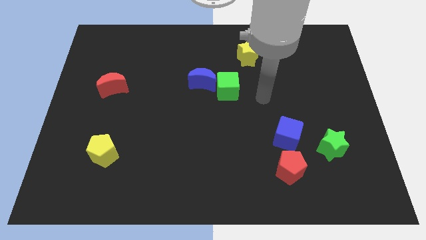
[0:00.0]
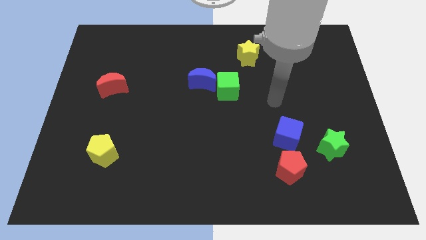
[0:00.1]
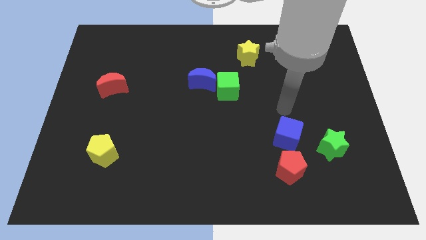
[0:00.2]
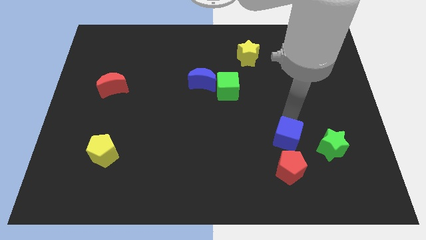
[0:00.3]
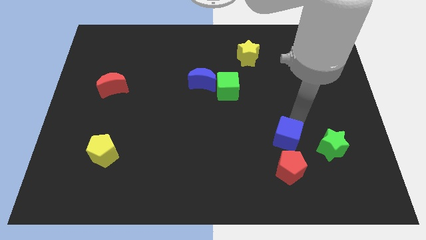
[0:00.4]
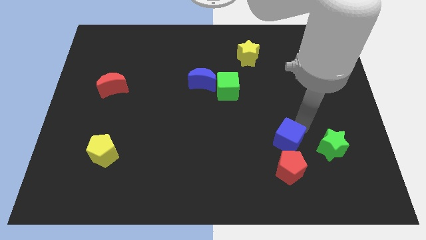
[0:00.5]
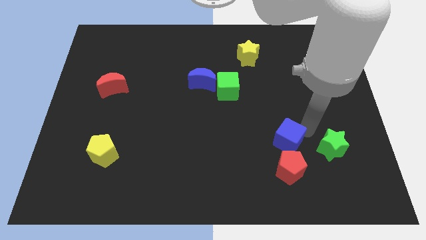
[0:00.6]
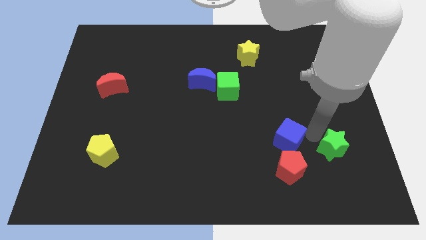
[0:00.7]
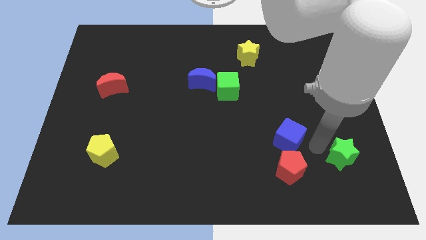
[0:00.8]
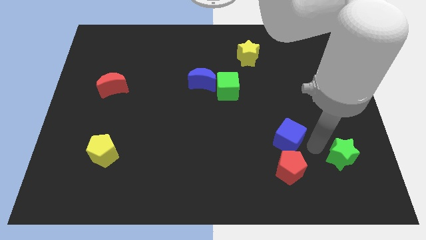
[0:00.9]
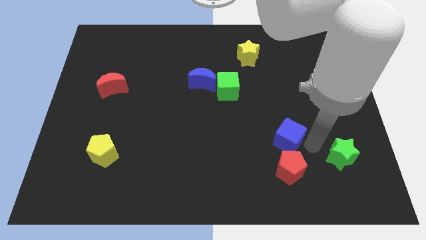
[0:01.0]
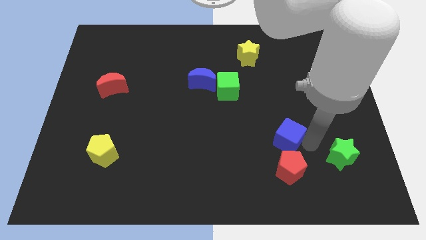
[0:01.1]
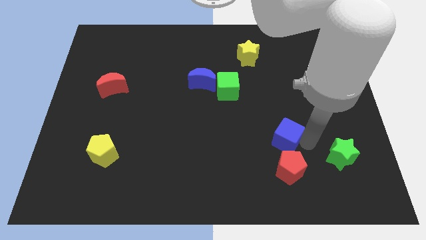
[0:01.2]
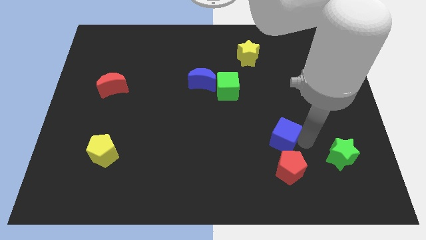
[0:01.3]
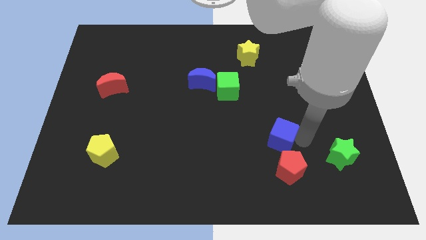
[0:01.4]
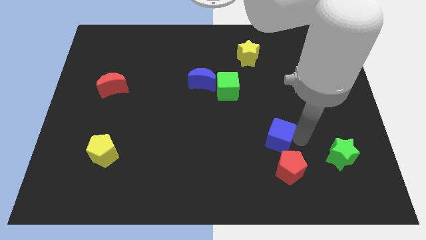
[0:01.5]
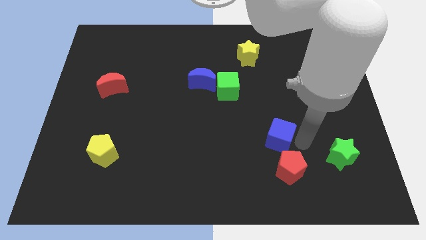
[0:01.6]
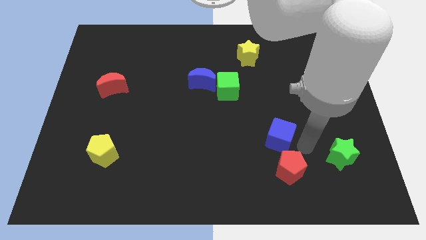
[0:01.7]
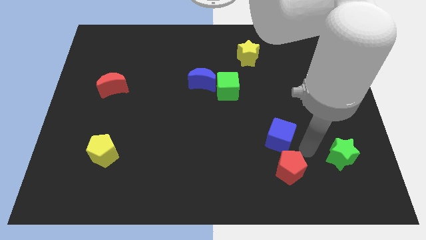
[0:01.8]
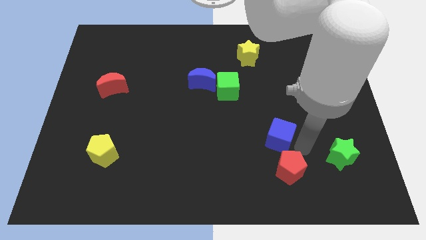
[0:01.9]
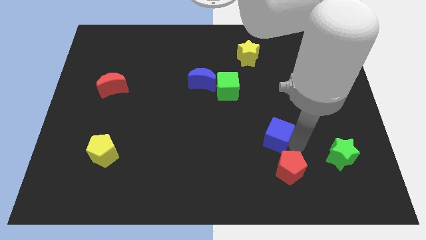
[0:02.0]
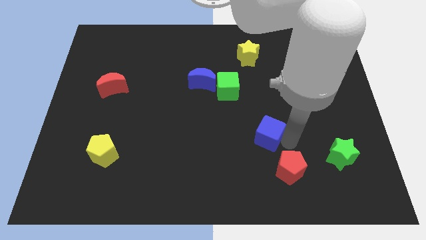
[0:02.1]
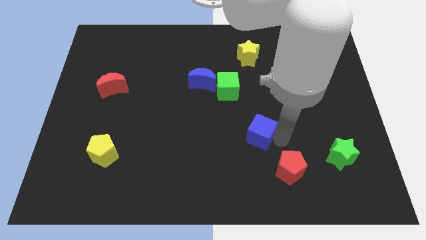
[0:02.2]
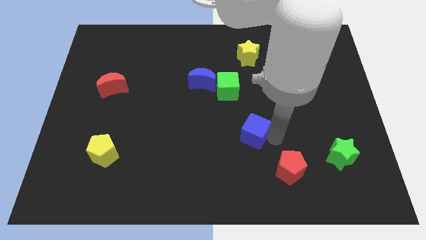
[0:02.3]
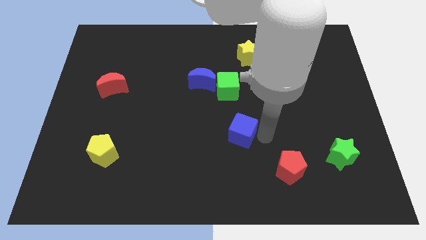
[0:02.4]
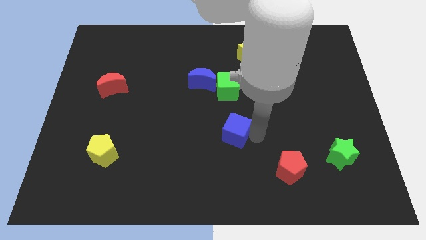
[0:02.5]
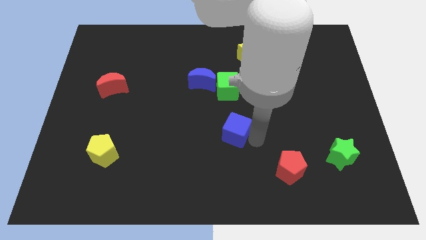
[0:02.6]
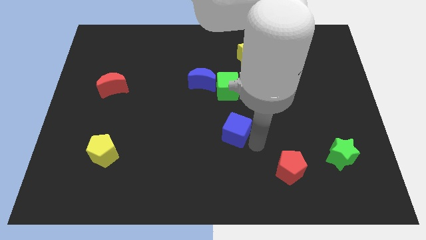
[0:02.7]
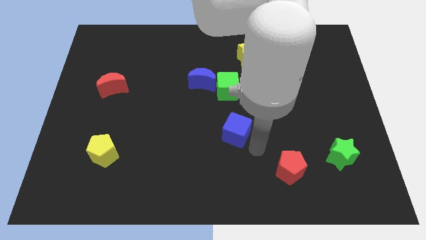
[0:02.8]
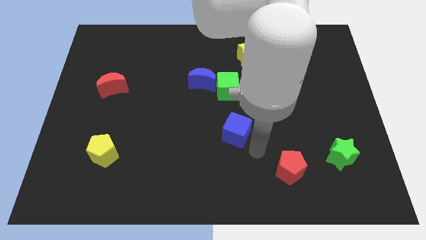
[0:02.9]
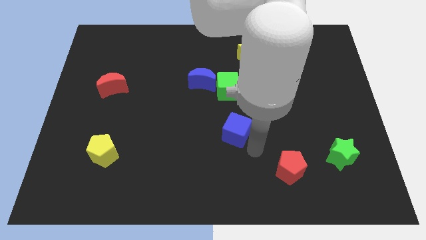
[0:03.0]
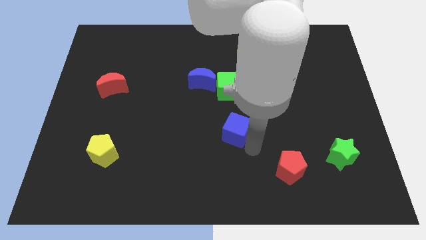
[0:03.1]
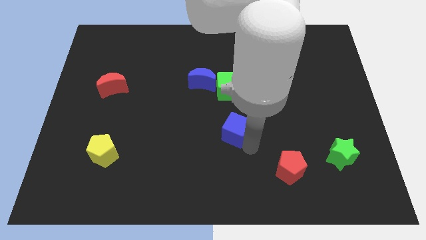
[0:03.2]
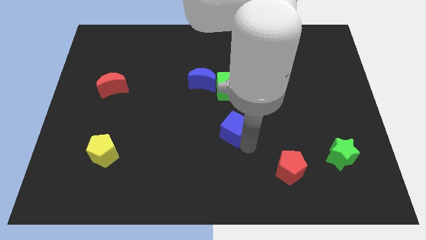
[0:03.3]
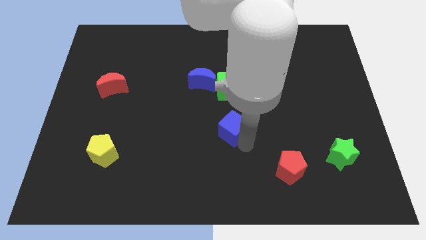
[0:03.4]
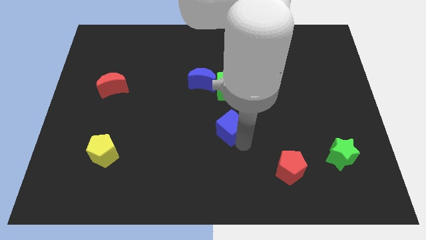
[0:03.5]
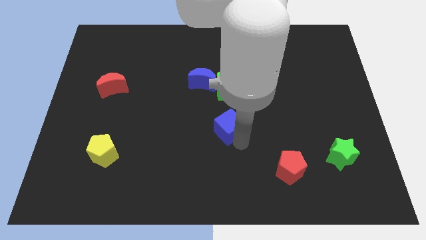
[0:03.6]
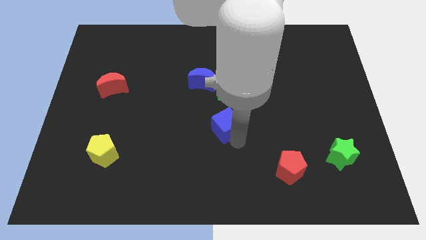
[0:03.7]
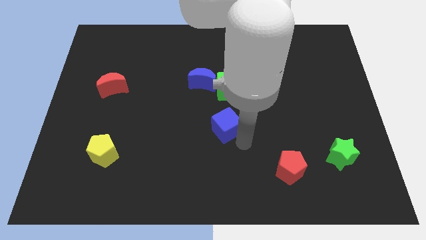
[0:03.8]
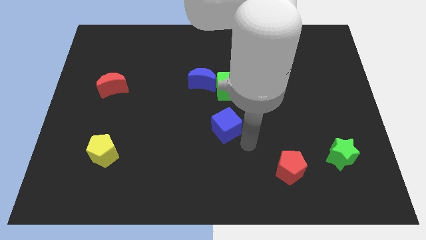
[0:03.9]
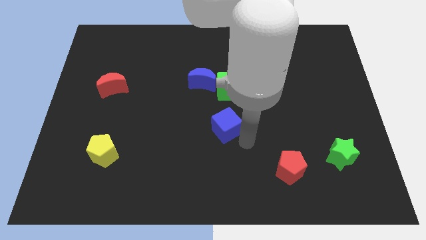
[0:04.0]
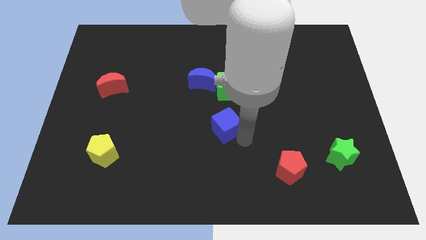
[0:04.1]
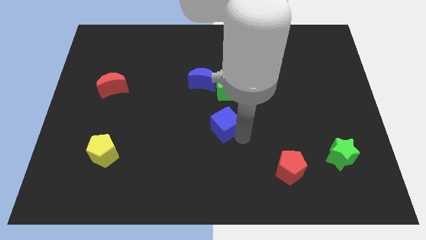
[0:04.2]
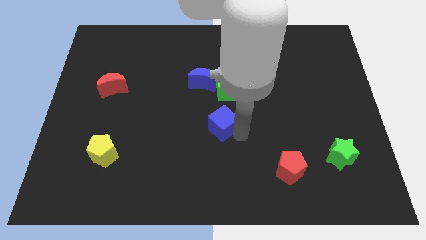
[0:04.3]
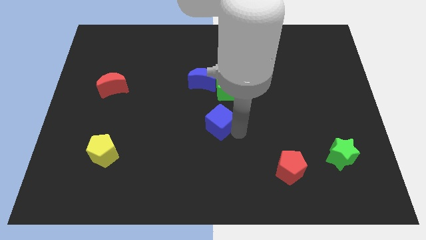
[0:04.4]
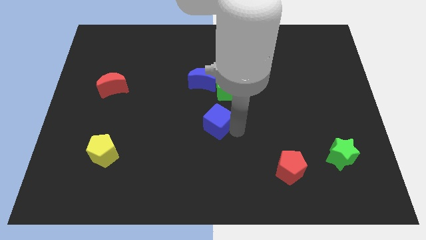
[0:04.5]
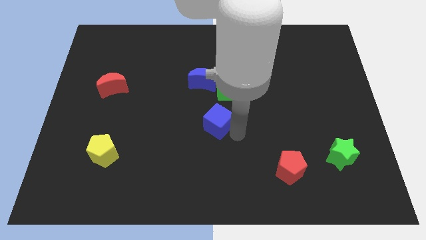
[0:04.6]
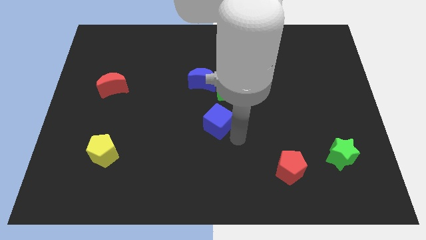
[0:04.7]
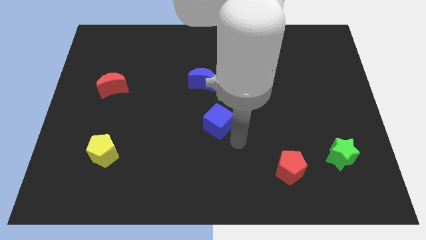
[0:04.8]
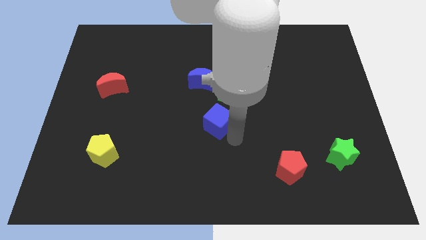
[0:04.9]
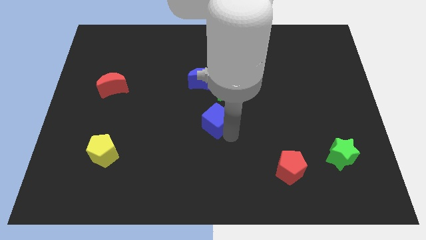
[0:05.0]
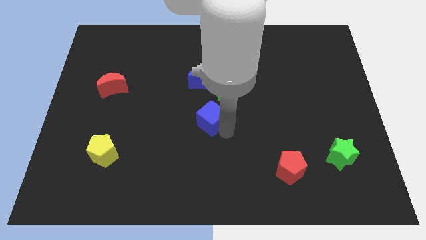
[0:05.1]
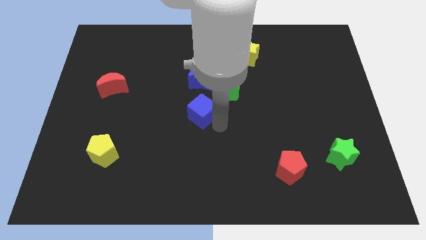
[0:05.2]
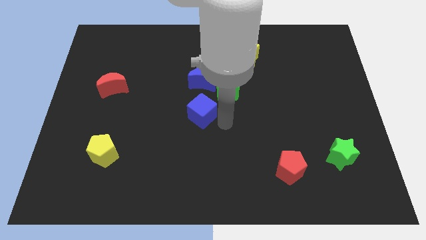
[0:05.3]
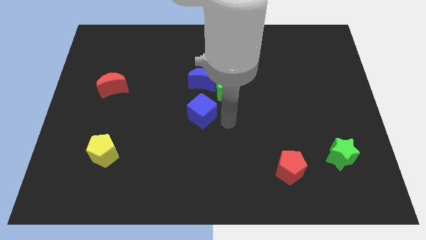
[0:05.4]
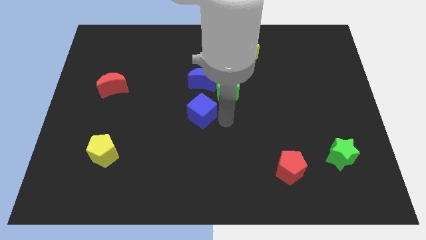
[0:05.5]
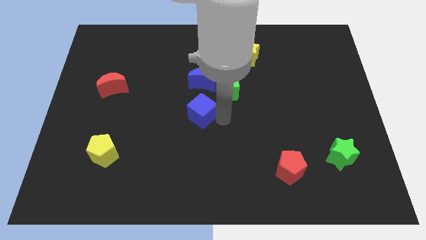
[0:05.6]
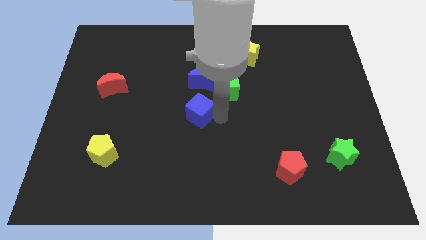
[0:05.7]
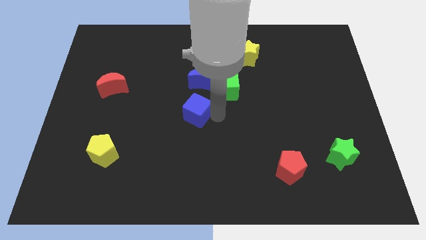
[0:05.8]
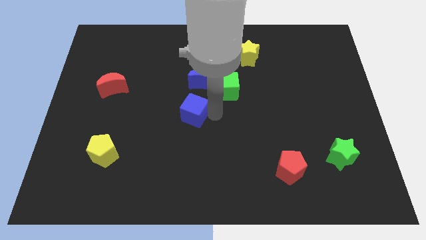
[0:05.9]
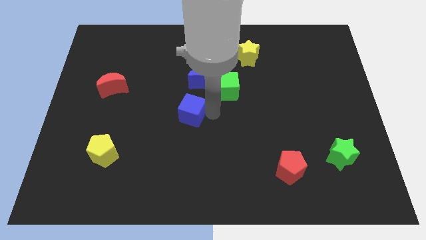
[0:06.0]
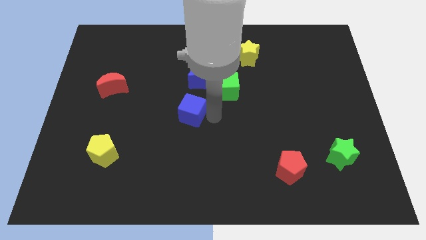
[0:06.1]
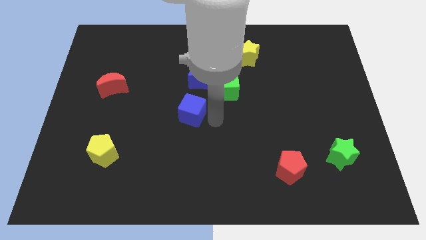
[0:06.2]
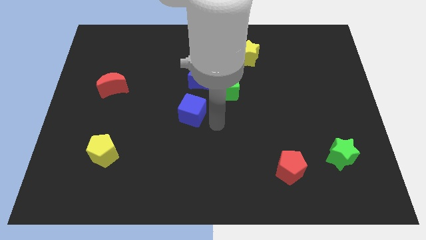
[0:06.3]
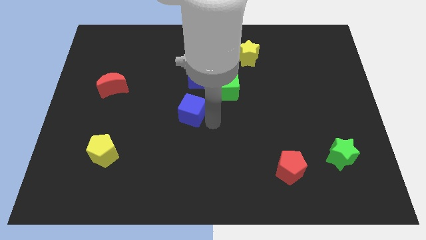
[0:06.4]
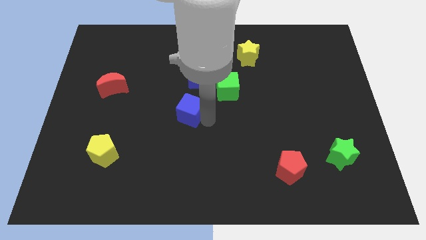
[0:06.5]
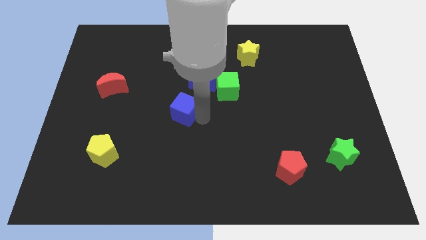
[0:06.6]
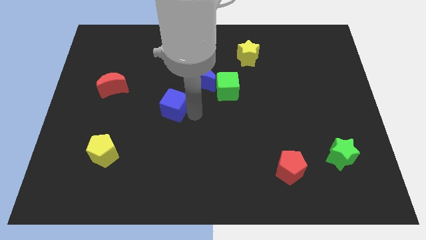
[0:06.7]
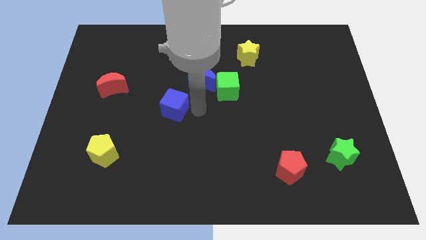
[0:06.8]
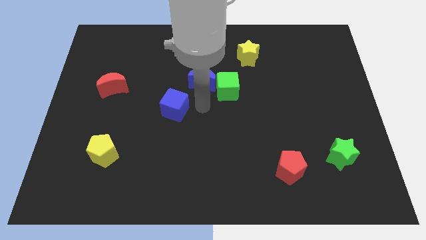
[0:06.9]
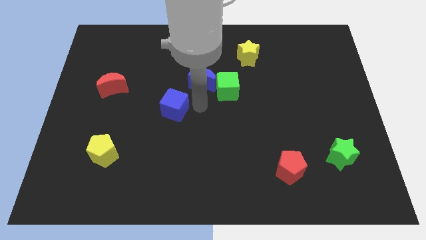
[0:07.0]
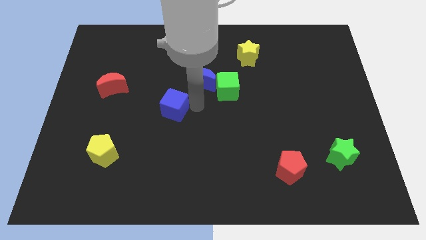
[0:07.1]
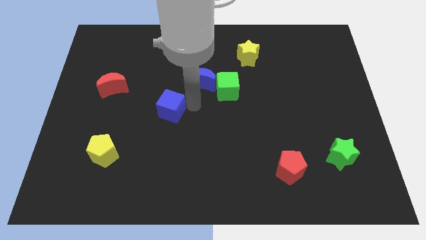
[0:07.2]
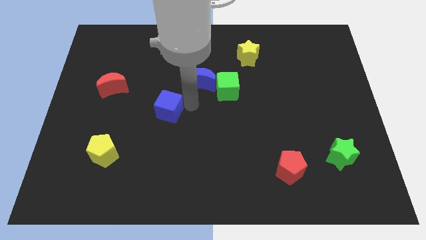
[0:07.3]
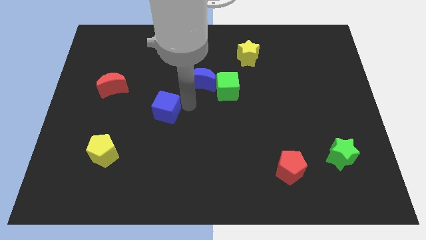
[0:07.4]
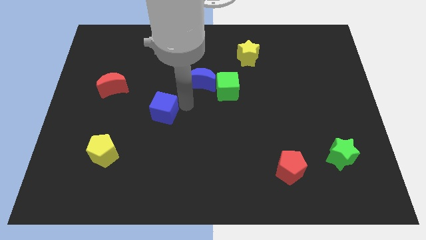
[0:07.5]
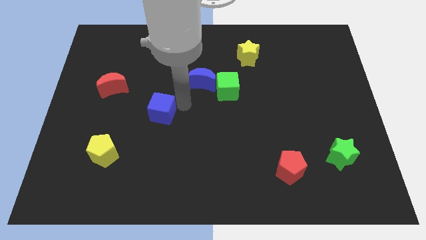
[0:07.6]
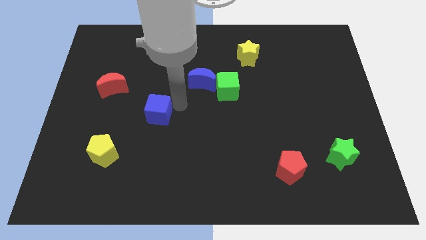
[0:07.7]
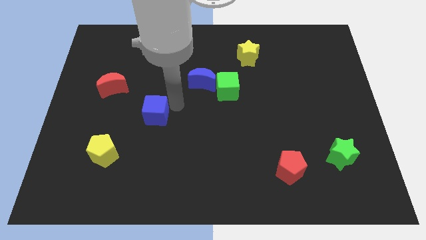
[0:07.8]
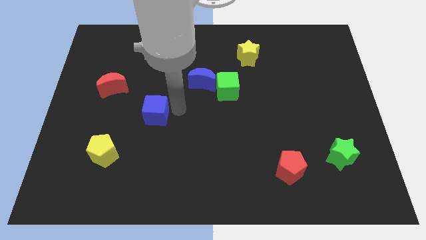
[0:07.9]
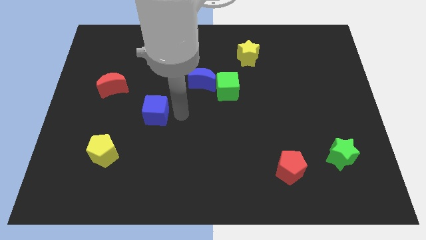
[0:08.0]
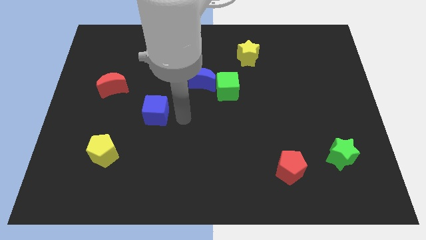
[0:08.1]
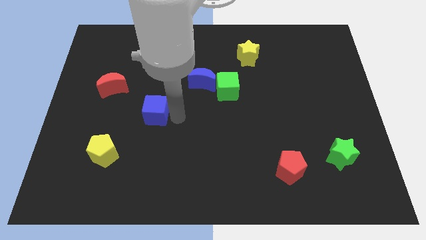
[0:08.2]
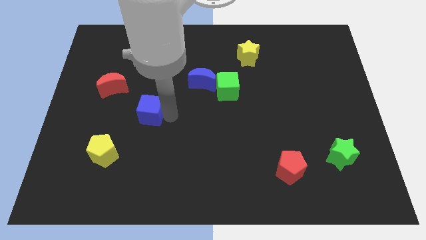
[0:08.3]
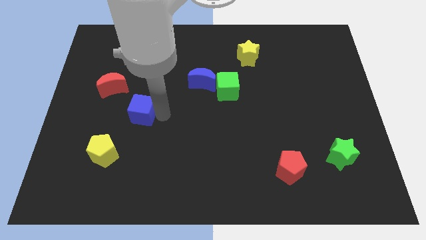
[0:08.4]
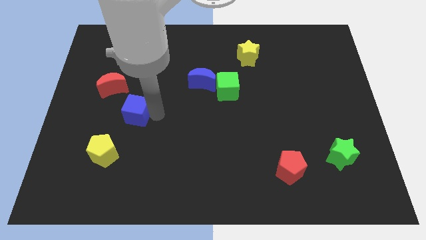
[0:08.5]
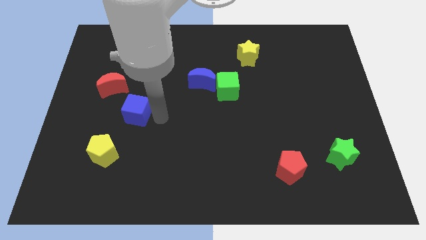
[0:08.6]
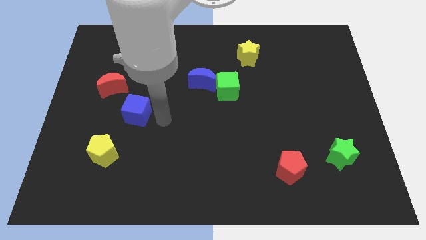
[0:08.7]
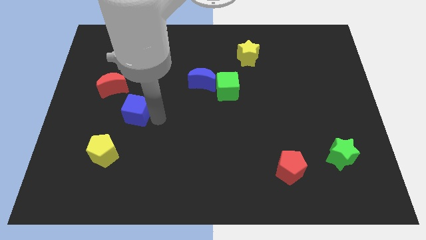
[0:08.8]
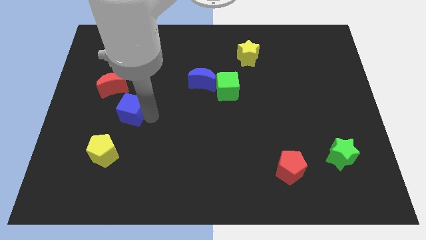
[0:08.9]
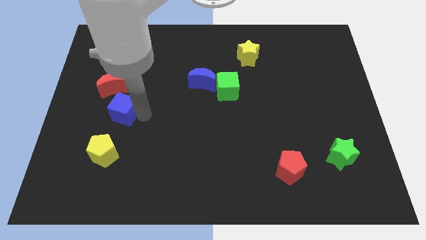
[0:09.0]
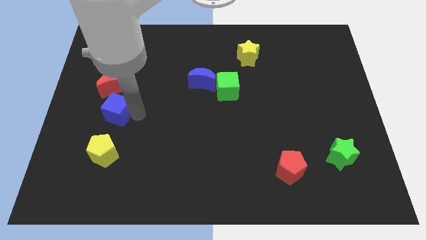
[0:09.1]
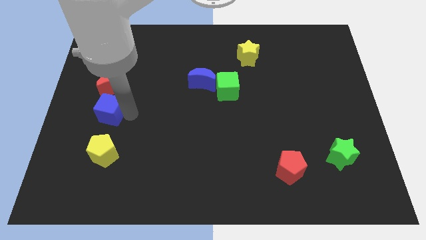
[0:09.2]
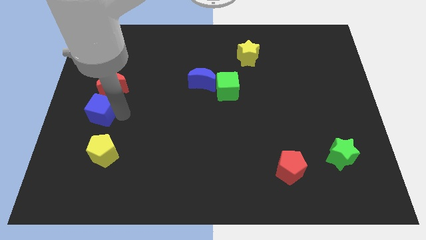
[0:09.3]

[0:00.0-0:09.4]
slide the blue cube to the center left
